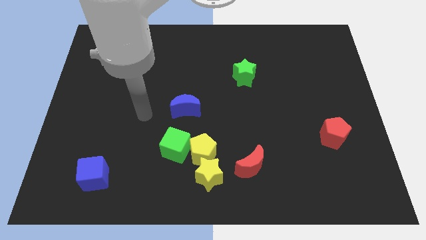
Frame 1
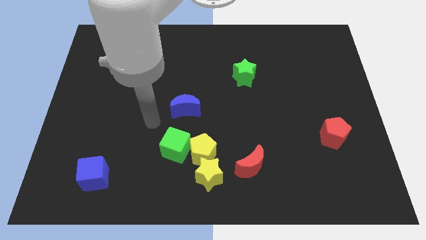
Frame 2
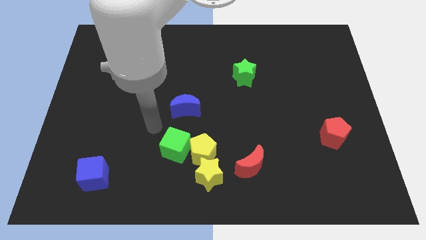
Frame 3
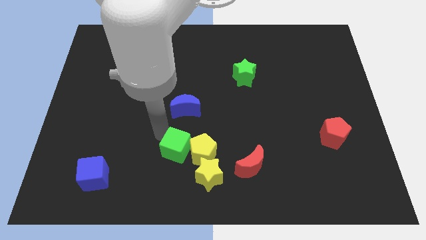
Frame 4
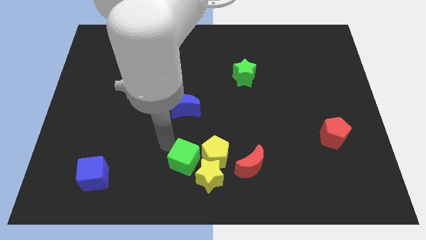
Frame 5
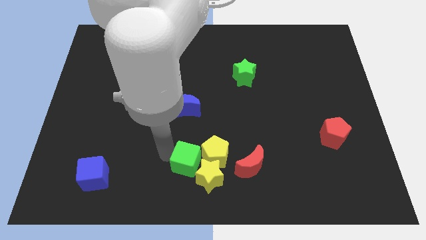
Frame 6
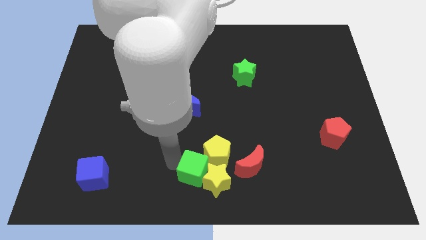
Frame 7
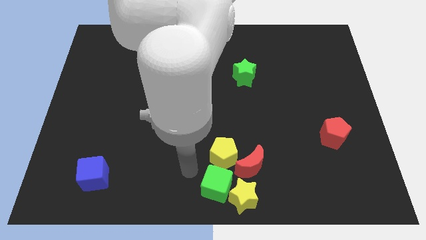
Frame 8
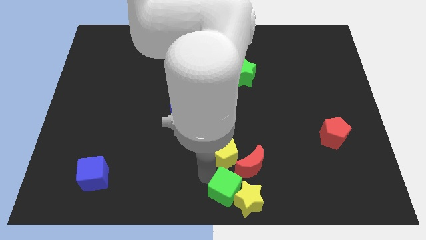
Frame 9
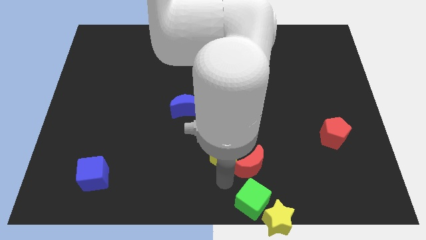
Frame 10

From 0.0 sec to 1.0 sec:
move the yellow pentagon away from the yellow star and green cube

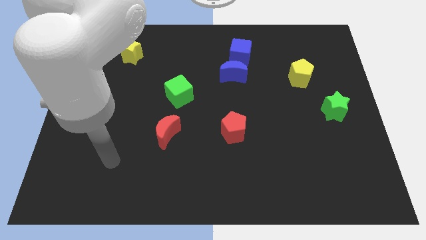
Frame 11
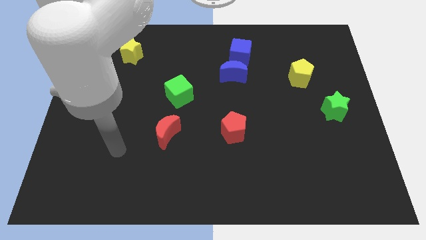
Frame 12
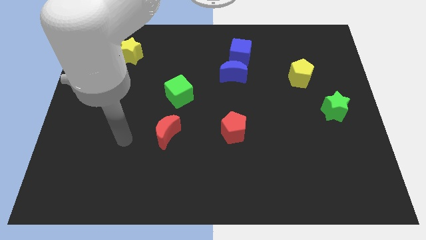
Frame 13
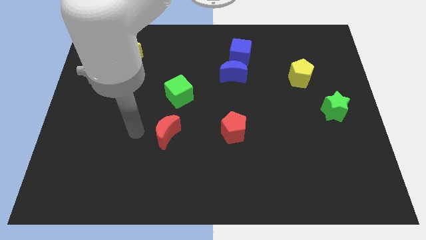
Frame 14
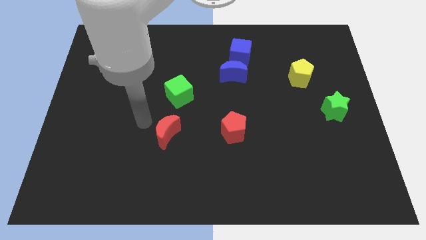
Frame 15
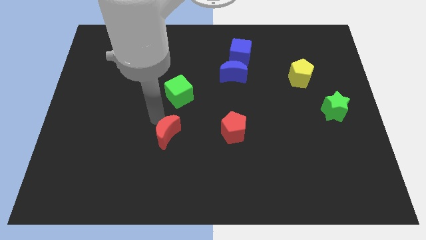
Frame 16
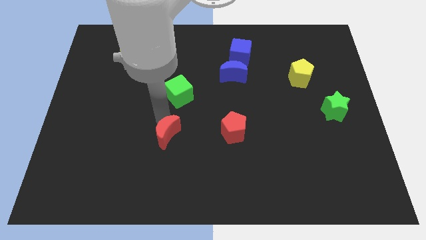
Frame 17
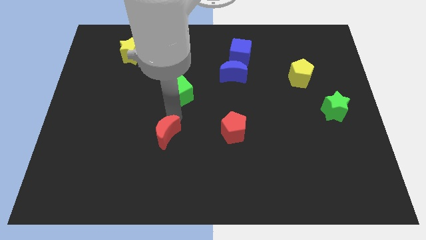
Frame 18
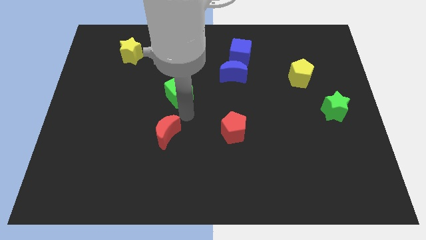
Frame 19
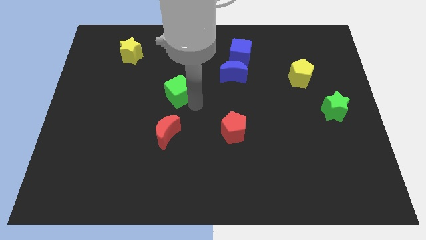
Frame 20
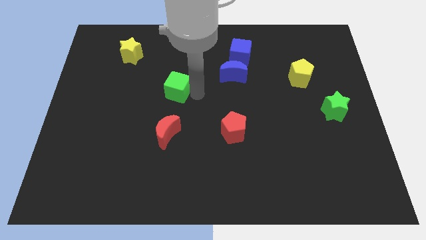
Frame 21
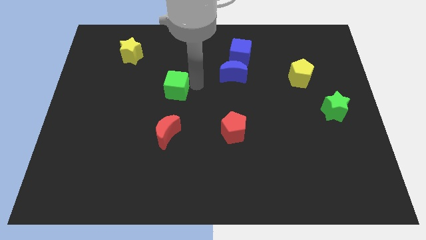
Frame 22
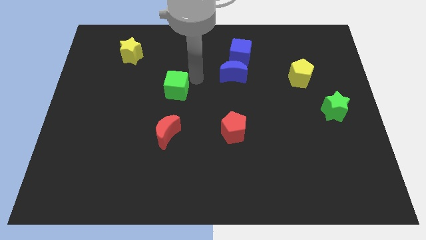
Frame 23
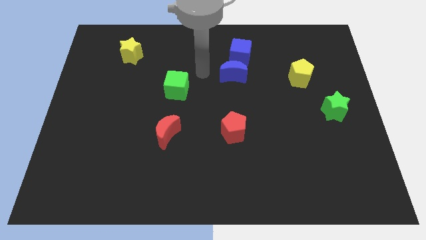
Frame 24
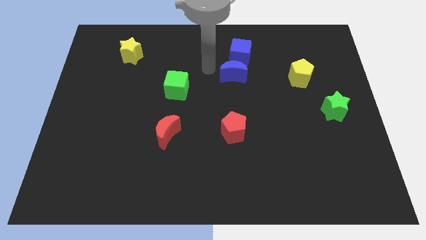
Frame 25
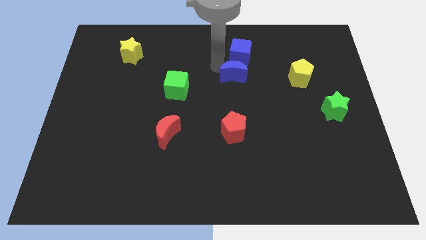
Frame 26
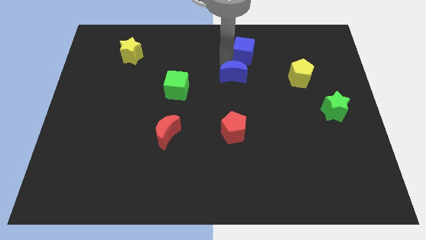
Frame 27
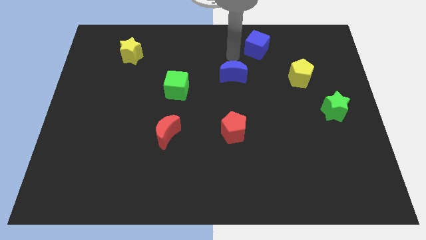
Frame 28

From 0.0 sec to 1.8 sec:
separate the blue moon from the blue cube

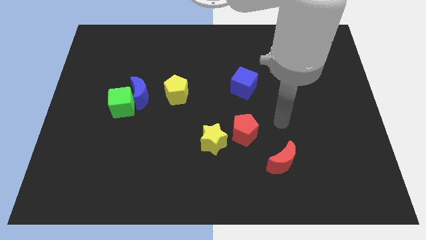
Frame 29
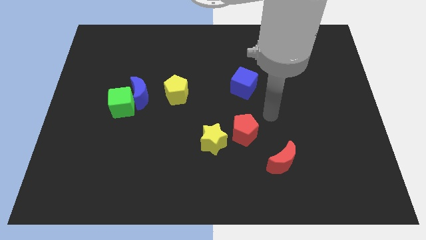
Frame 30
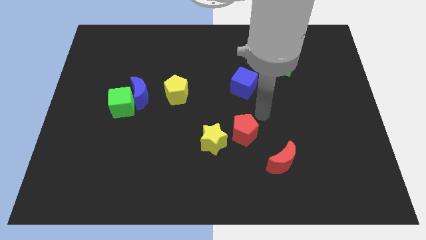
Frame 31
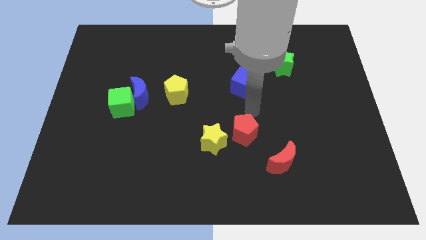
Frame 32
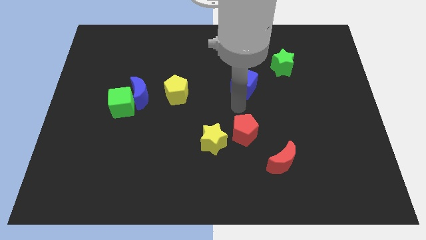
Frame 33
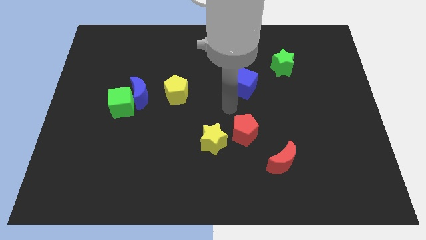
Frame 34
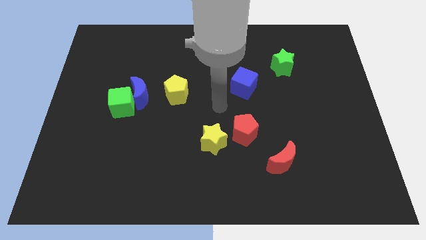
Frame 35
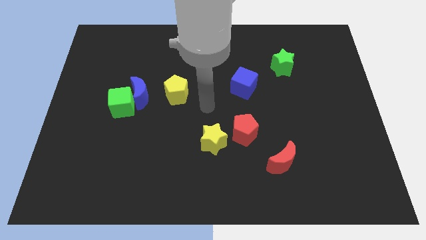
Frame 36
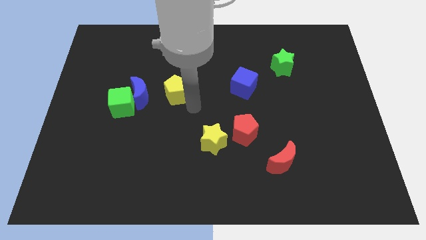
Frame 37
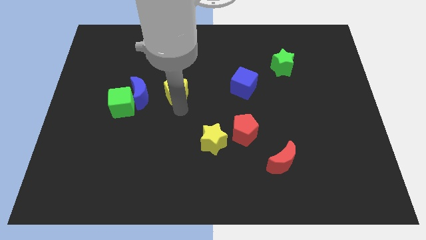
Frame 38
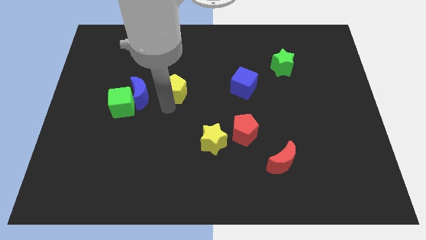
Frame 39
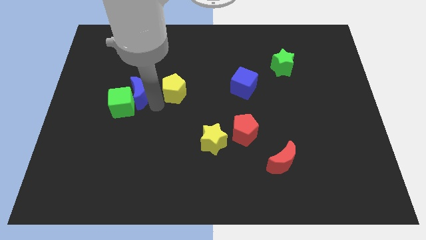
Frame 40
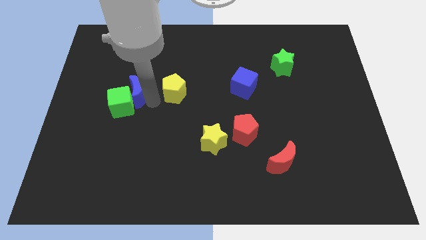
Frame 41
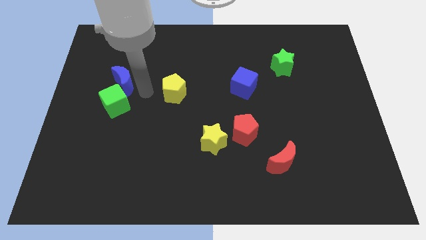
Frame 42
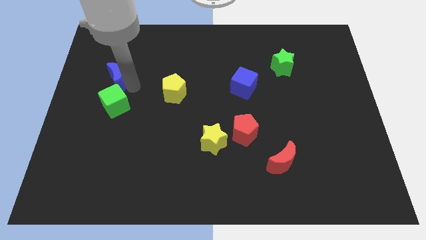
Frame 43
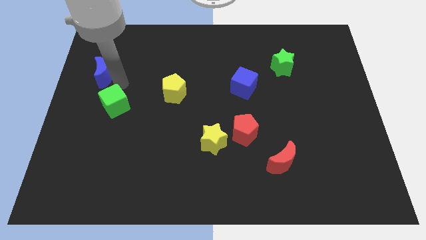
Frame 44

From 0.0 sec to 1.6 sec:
separate the green cube from the blue moon

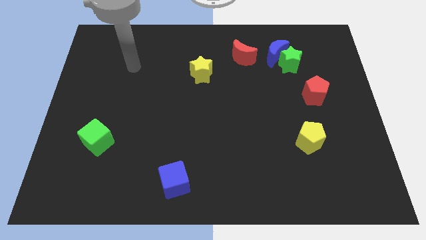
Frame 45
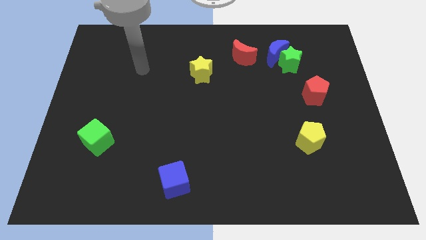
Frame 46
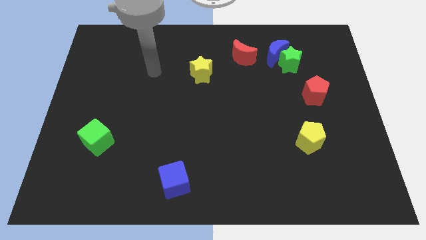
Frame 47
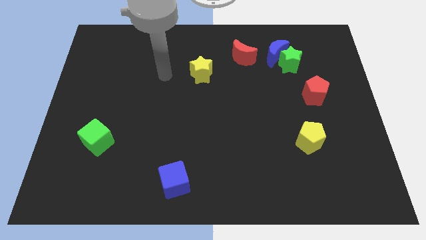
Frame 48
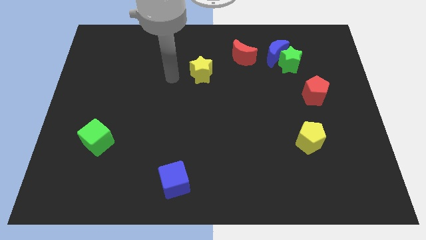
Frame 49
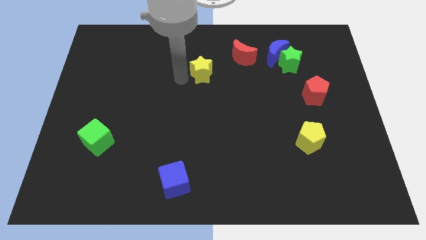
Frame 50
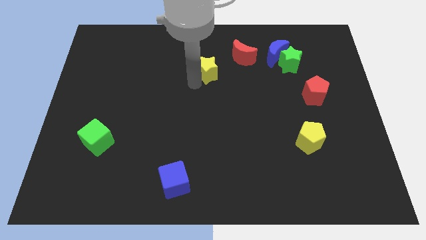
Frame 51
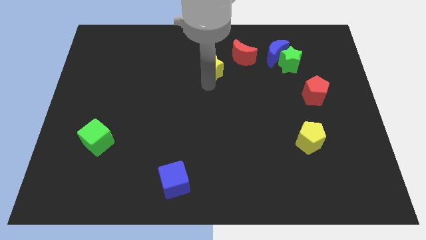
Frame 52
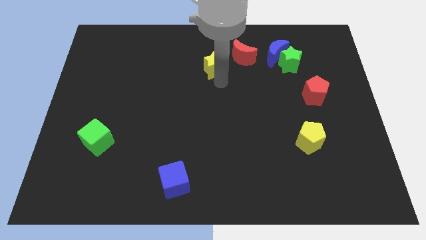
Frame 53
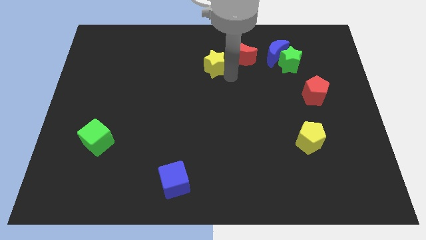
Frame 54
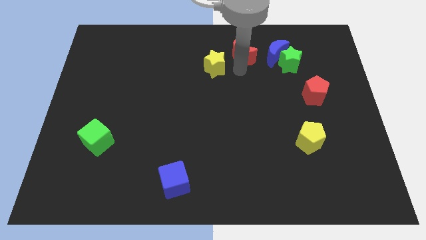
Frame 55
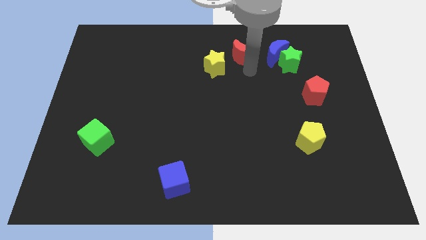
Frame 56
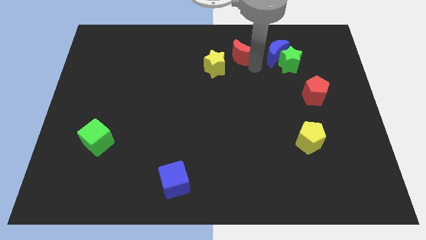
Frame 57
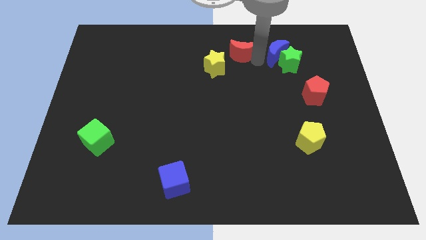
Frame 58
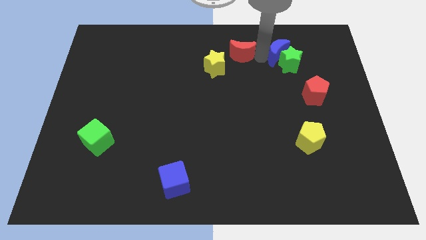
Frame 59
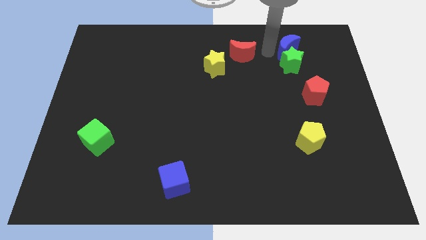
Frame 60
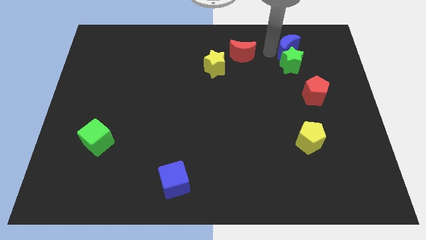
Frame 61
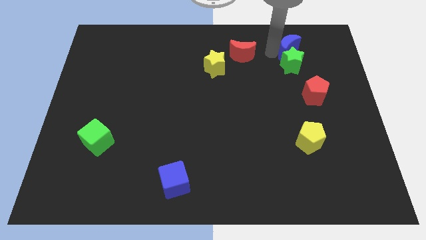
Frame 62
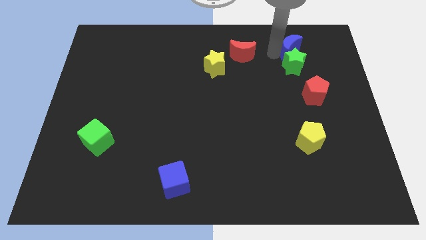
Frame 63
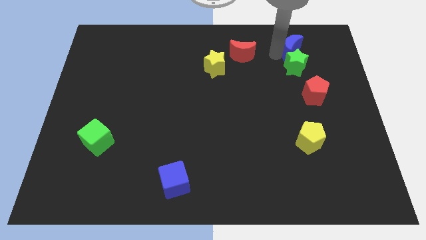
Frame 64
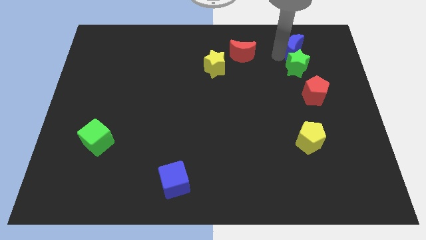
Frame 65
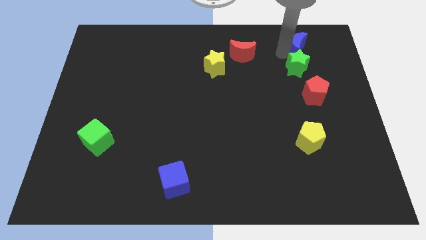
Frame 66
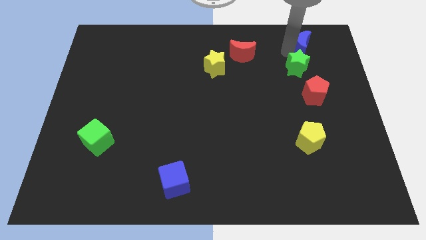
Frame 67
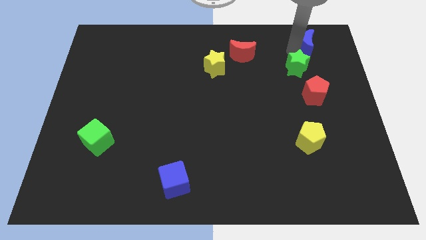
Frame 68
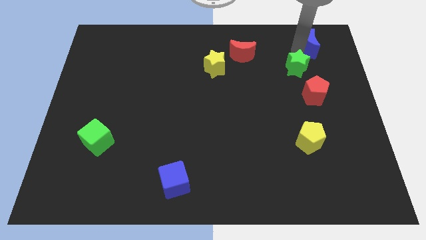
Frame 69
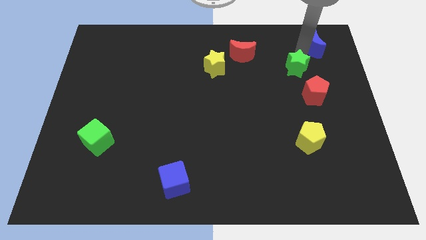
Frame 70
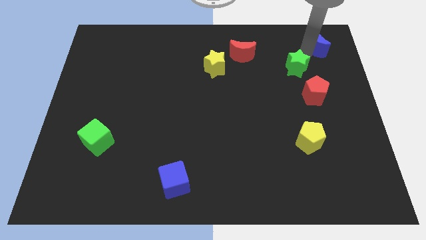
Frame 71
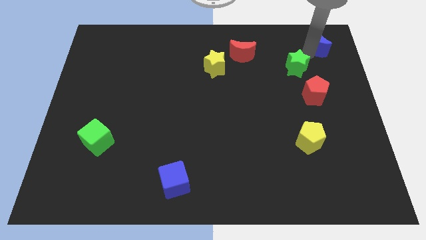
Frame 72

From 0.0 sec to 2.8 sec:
pull the green star apart from the blue moon

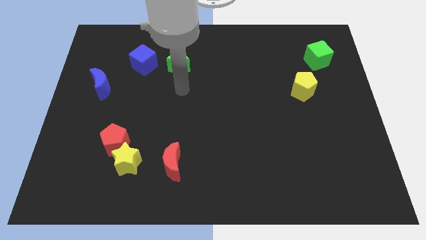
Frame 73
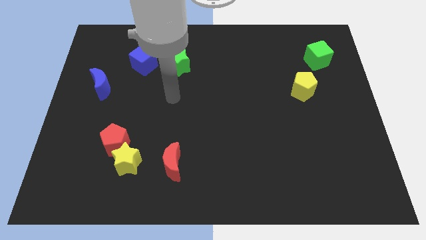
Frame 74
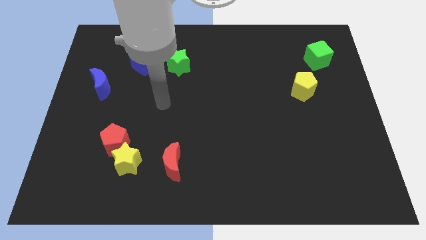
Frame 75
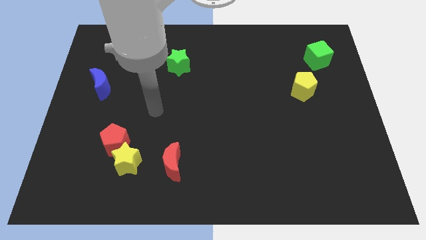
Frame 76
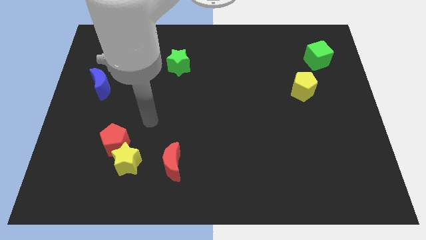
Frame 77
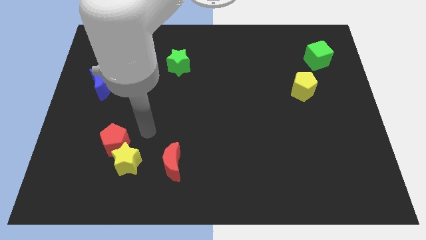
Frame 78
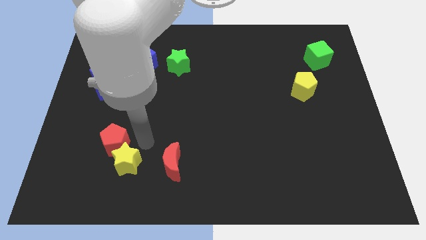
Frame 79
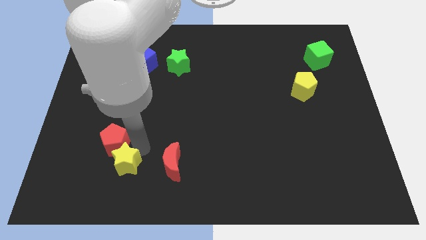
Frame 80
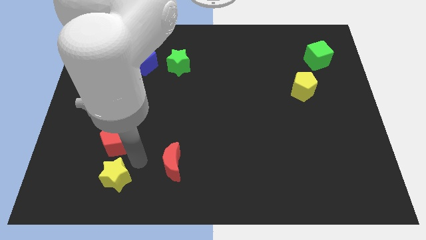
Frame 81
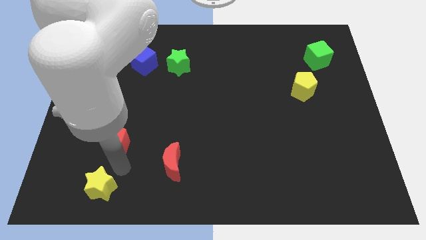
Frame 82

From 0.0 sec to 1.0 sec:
pull the red pentagon apart from the yellow star

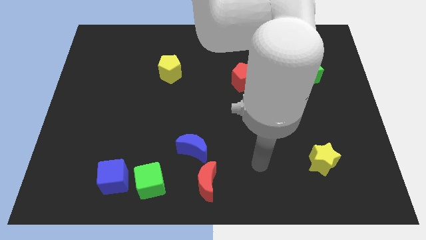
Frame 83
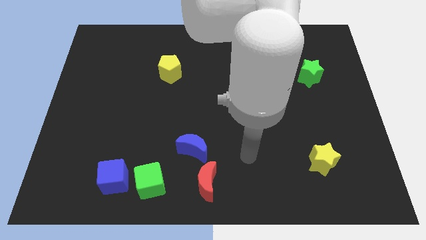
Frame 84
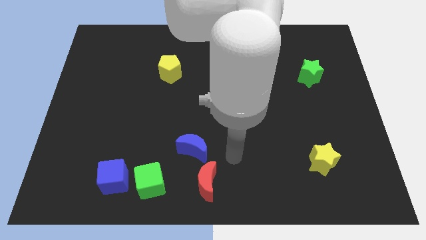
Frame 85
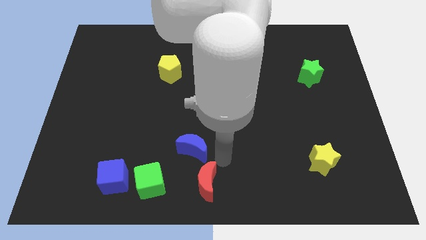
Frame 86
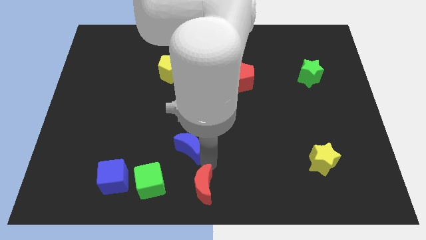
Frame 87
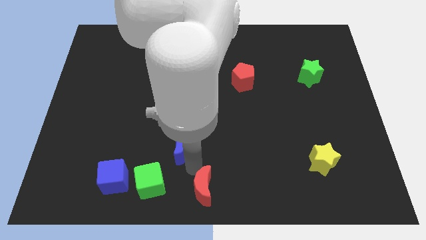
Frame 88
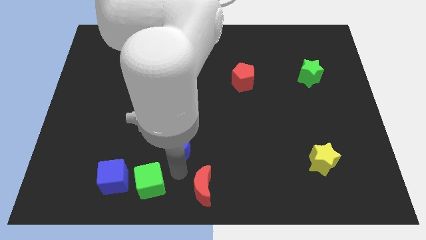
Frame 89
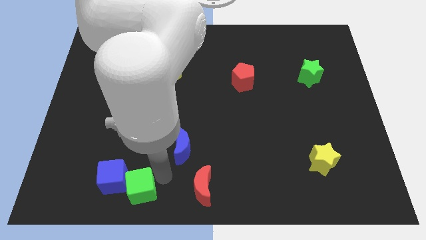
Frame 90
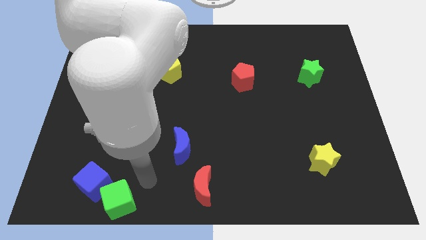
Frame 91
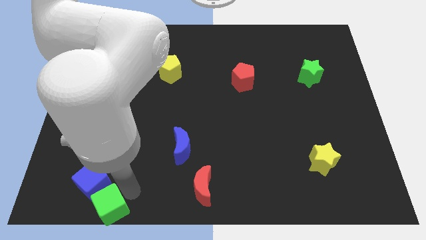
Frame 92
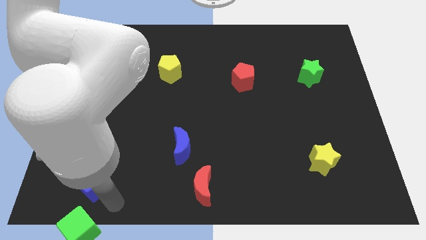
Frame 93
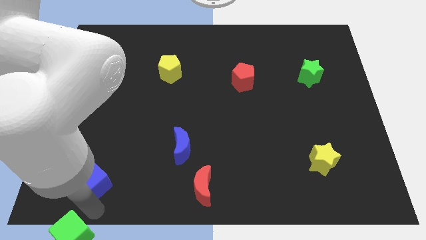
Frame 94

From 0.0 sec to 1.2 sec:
pull the blue cube apart from the green cube

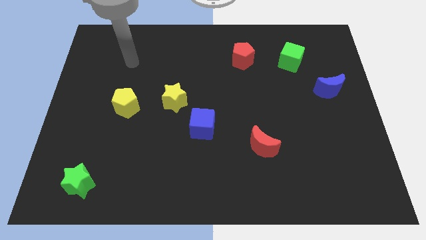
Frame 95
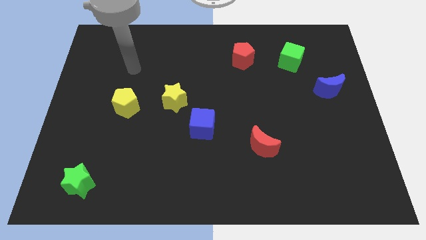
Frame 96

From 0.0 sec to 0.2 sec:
move the blue cube away from the yellow star
